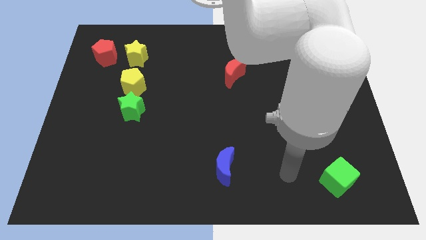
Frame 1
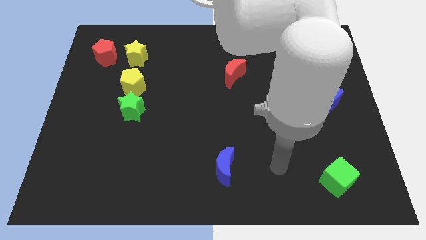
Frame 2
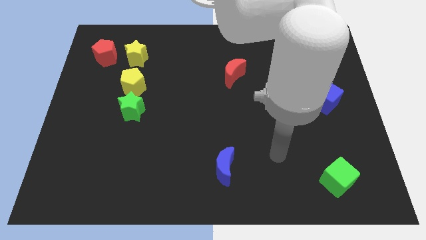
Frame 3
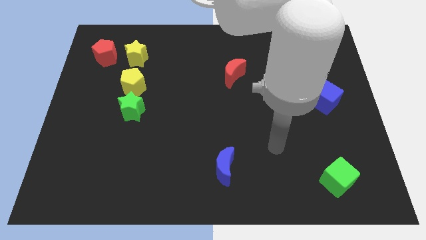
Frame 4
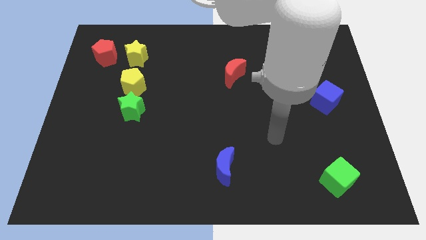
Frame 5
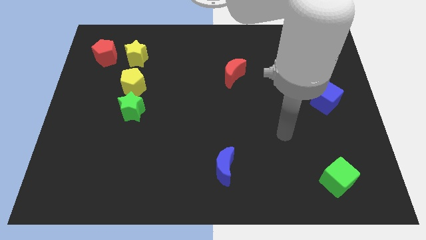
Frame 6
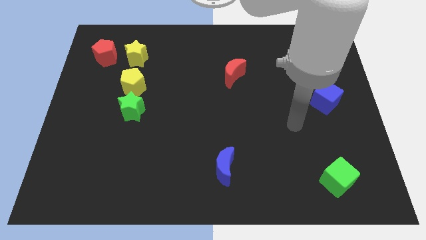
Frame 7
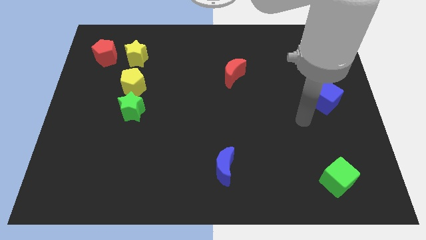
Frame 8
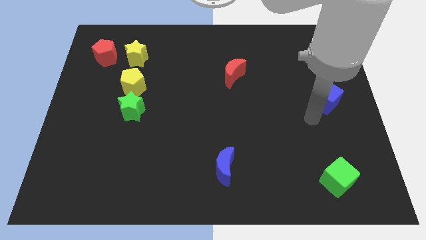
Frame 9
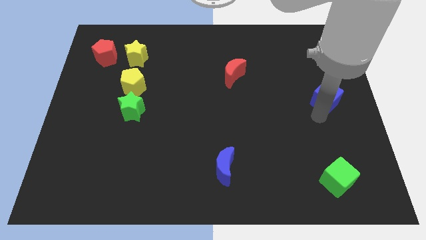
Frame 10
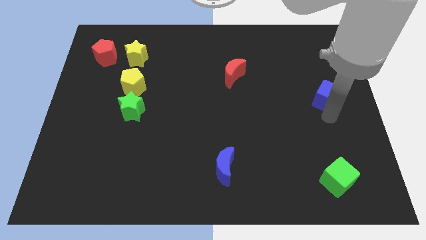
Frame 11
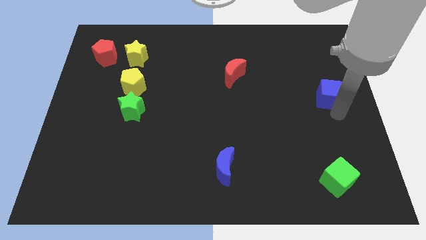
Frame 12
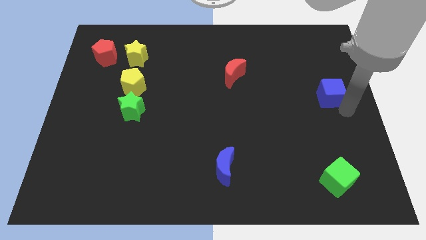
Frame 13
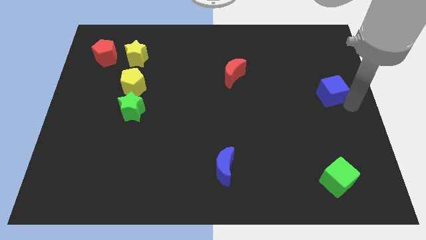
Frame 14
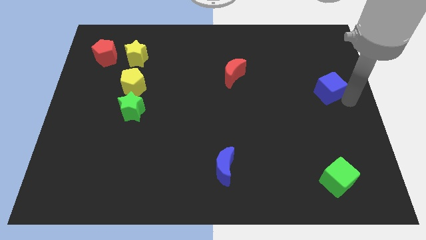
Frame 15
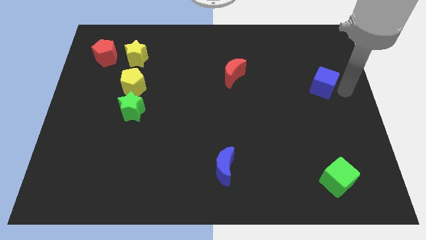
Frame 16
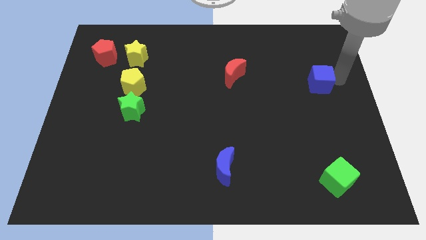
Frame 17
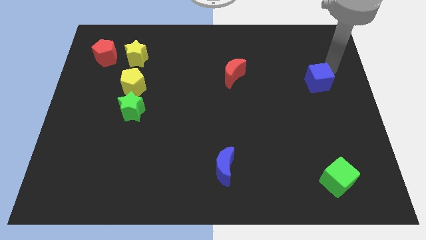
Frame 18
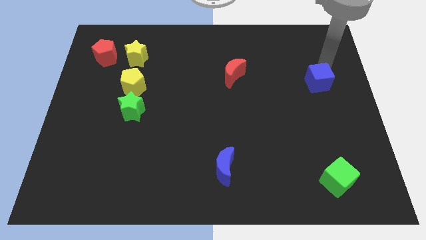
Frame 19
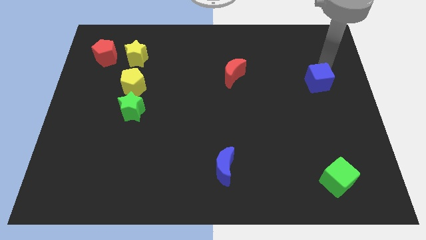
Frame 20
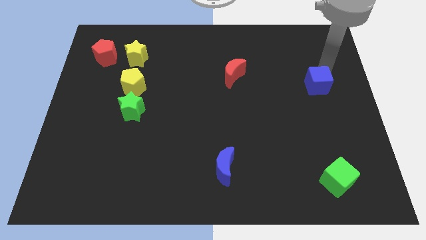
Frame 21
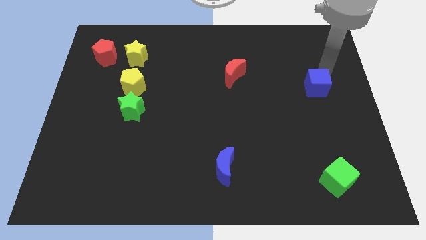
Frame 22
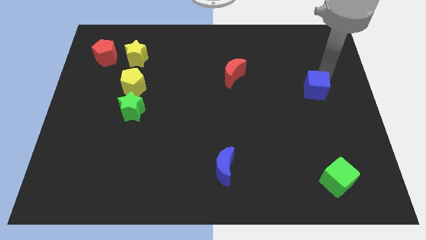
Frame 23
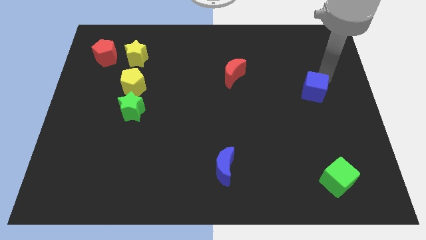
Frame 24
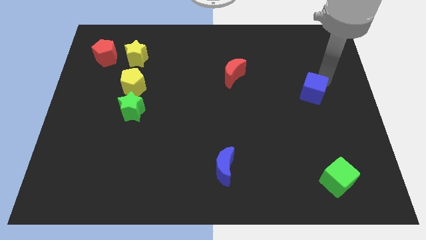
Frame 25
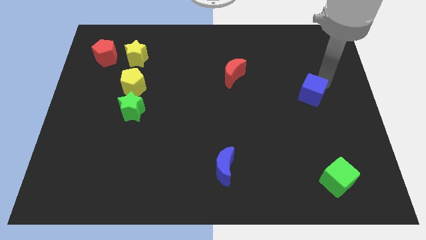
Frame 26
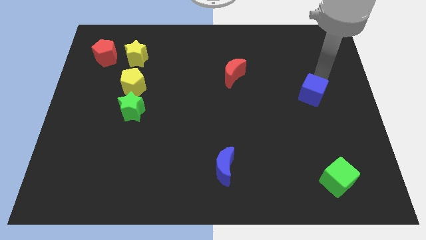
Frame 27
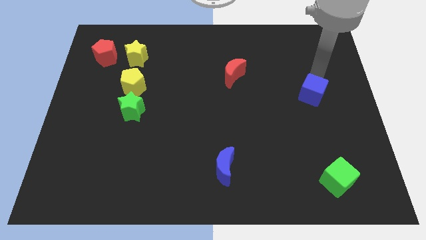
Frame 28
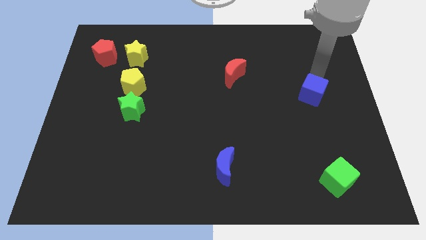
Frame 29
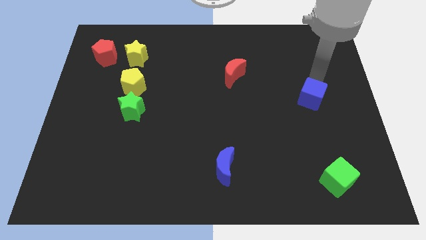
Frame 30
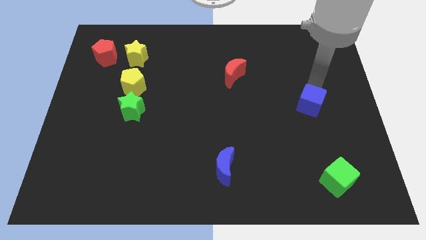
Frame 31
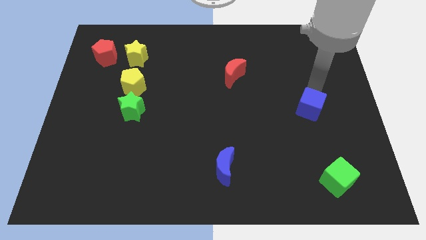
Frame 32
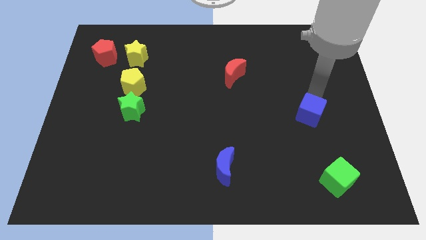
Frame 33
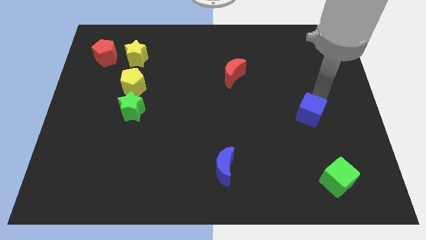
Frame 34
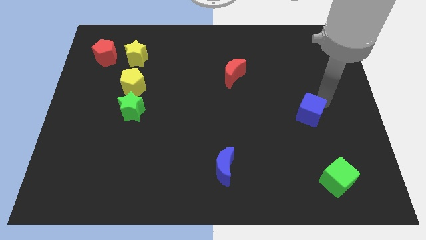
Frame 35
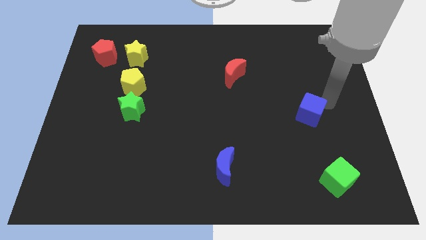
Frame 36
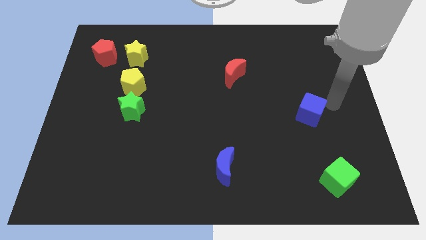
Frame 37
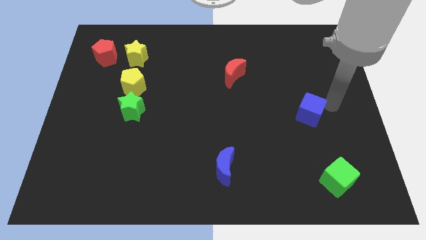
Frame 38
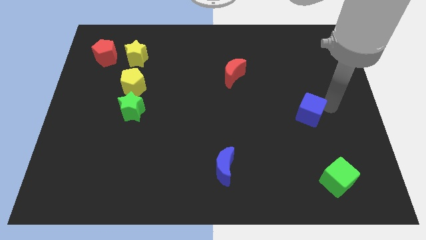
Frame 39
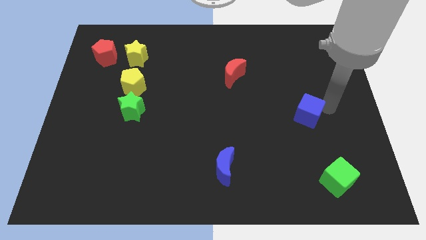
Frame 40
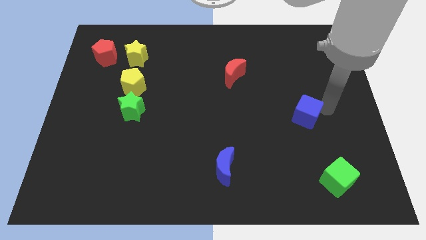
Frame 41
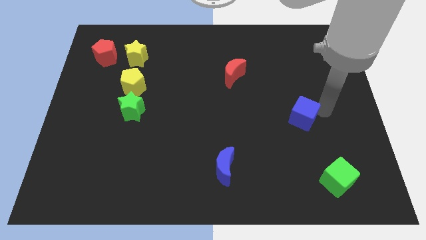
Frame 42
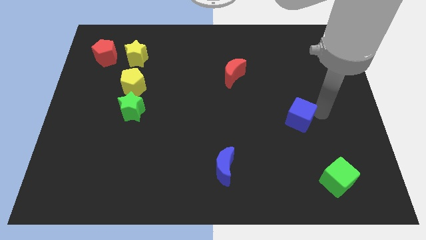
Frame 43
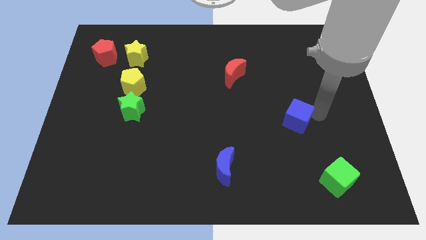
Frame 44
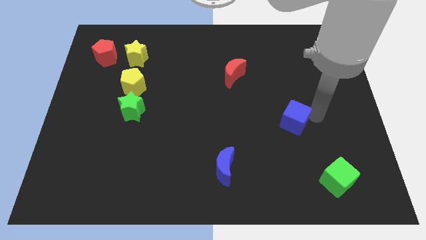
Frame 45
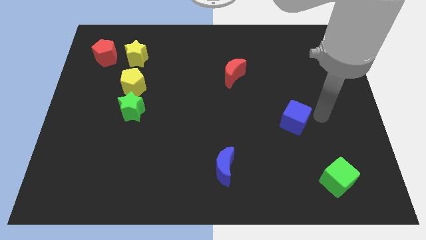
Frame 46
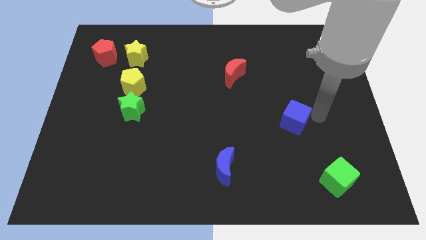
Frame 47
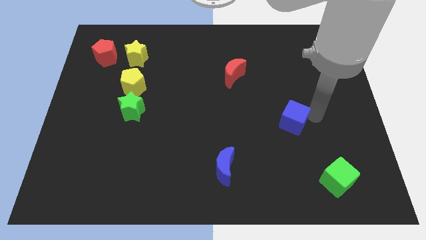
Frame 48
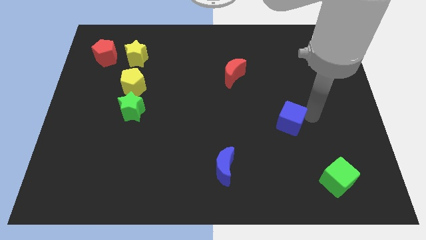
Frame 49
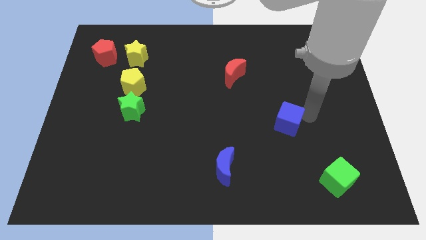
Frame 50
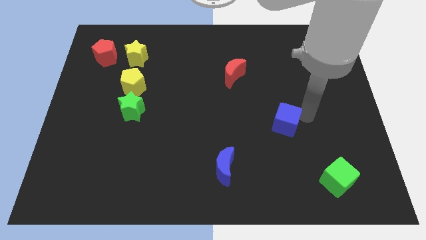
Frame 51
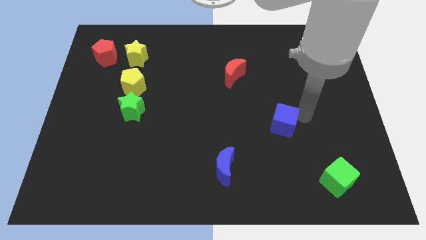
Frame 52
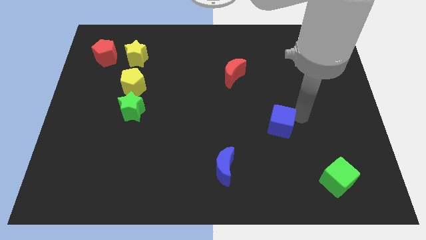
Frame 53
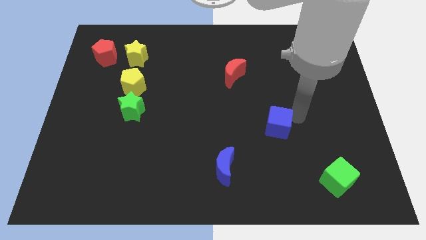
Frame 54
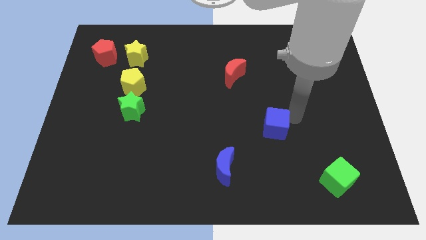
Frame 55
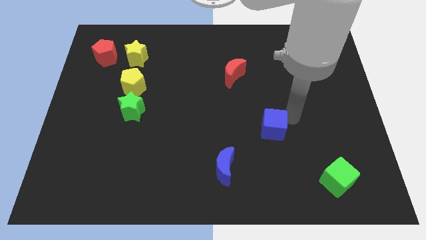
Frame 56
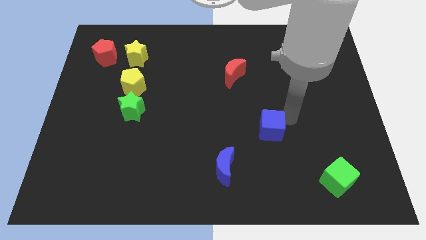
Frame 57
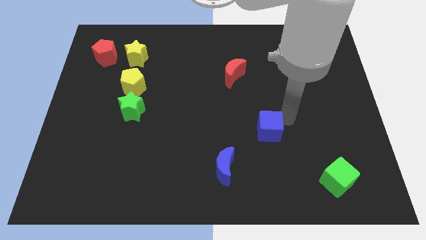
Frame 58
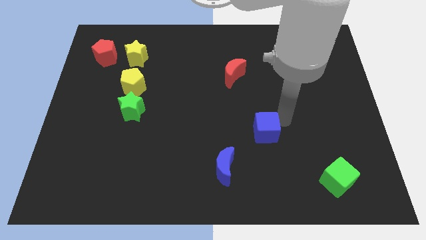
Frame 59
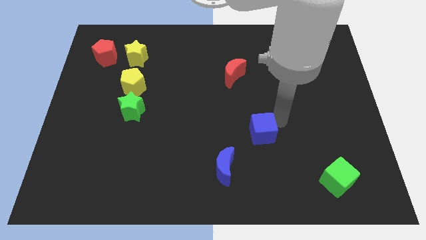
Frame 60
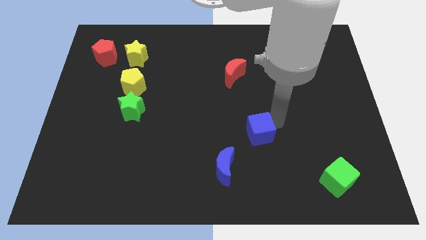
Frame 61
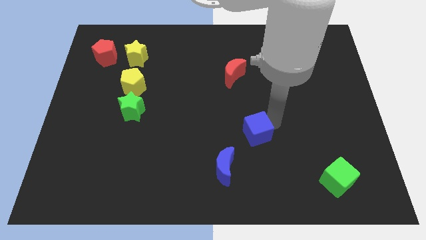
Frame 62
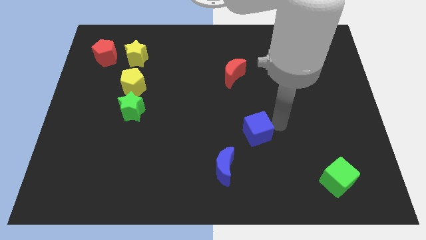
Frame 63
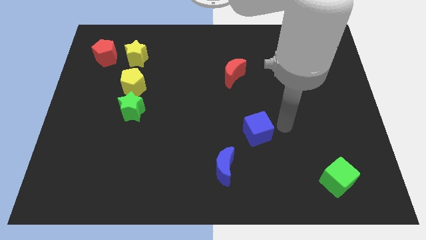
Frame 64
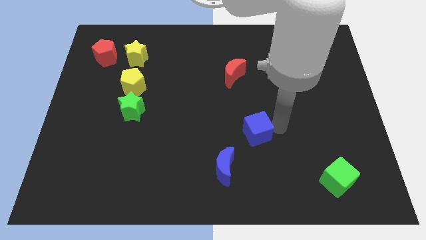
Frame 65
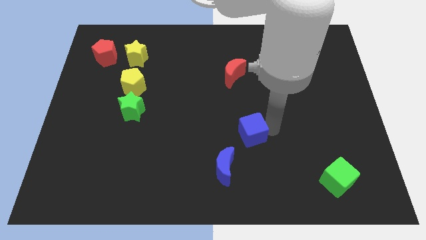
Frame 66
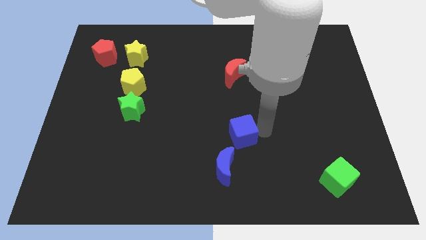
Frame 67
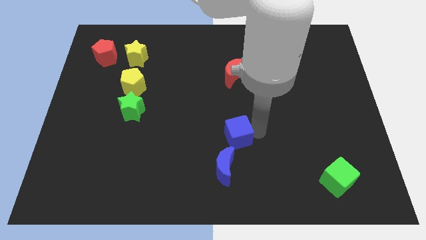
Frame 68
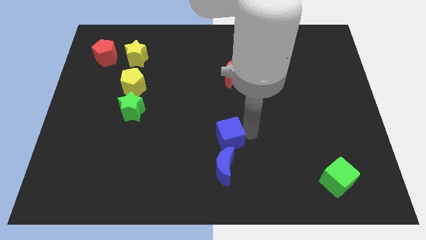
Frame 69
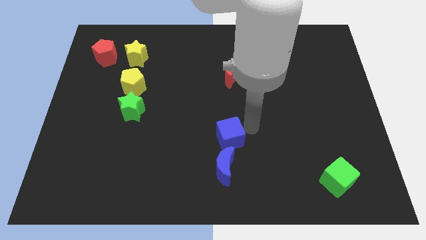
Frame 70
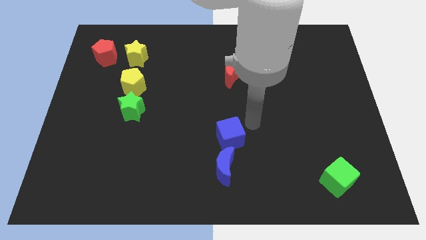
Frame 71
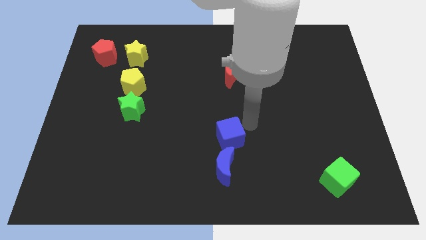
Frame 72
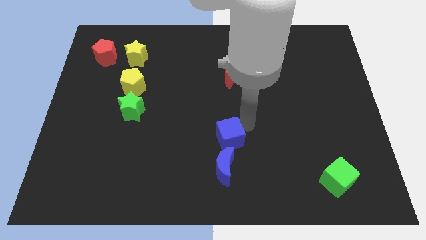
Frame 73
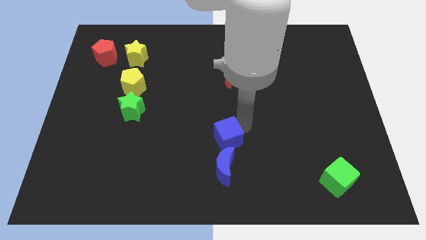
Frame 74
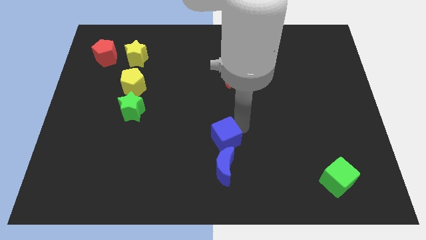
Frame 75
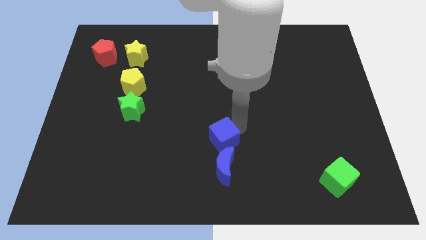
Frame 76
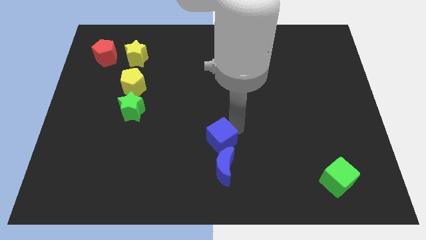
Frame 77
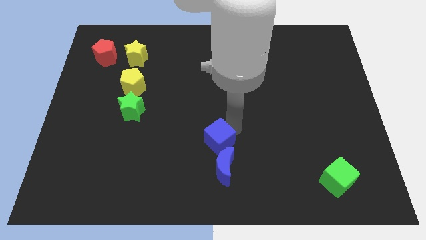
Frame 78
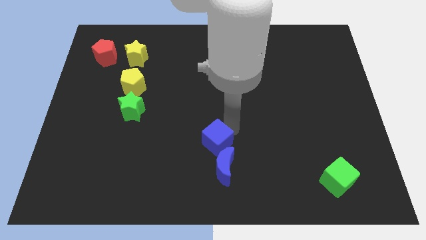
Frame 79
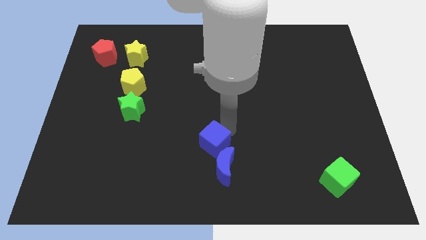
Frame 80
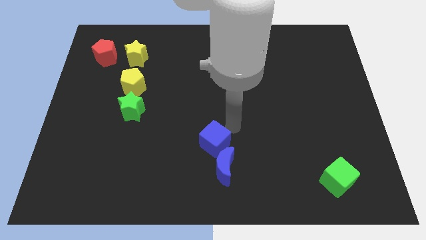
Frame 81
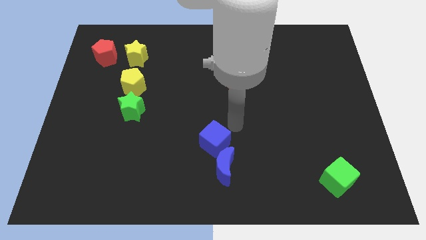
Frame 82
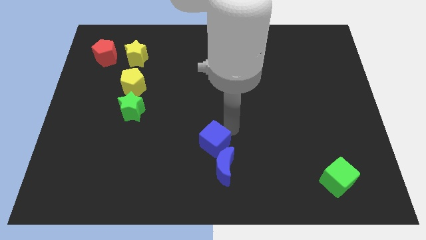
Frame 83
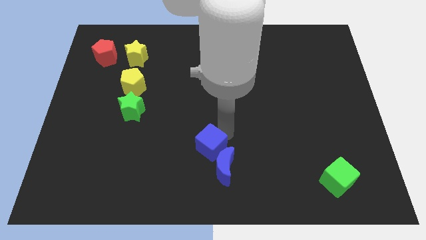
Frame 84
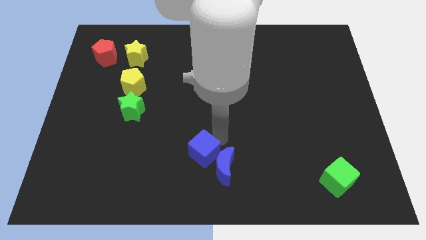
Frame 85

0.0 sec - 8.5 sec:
move the blue cube to the left of the blue moon
